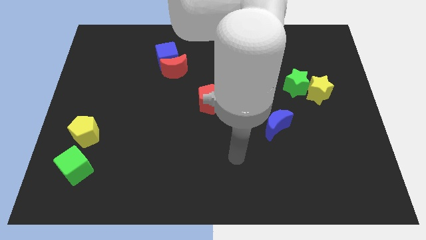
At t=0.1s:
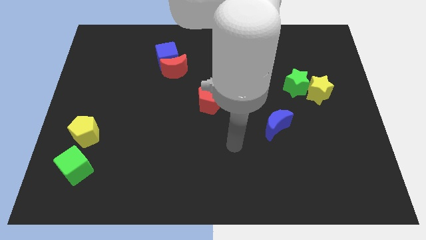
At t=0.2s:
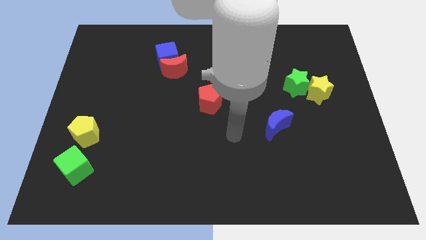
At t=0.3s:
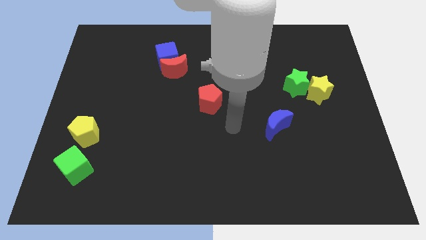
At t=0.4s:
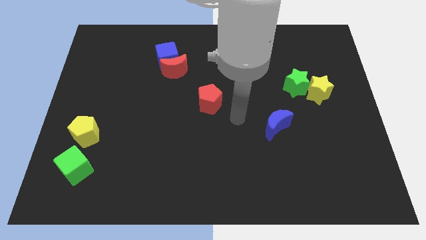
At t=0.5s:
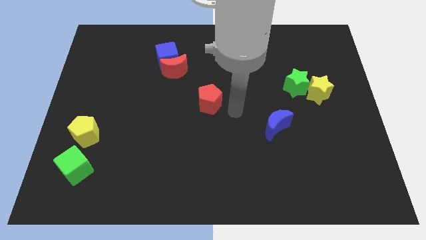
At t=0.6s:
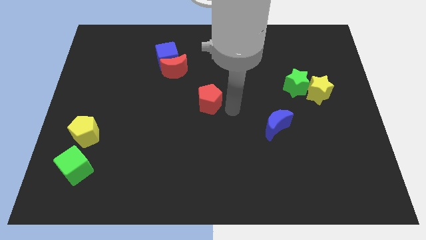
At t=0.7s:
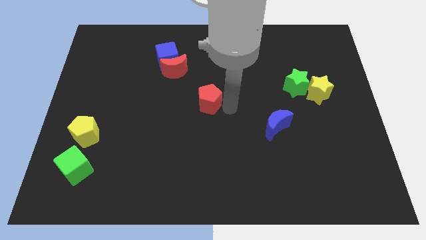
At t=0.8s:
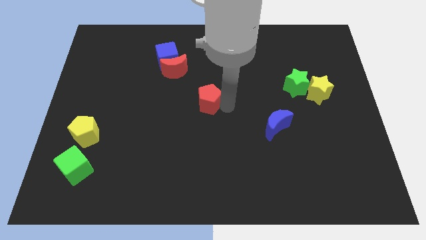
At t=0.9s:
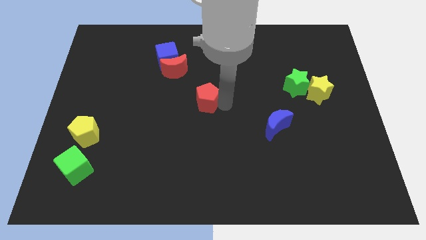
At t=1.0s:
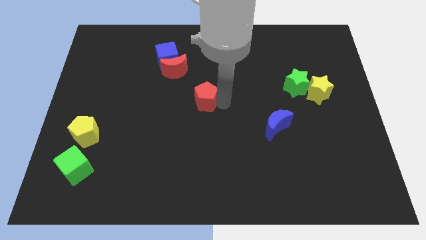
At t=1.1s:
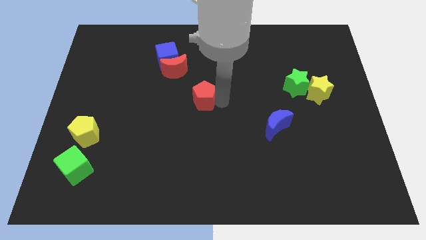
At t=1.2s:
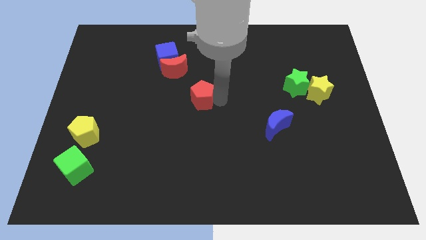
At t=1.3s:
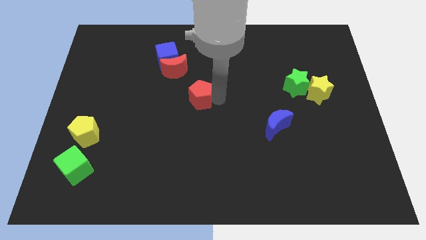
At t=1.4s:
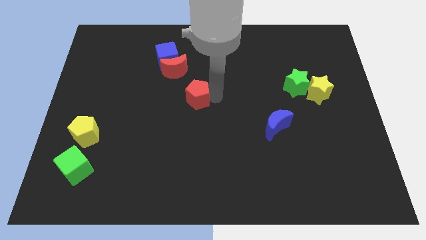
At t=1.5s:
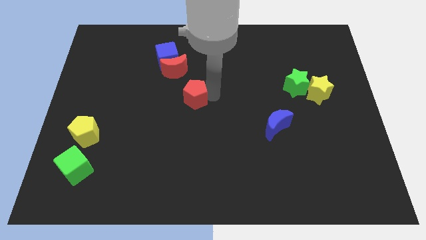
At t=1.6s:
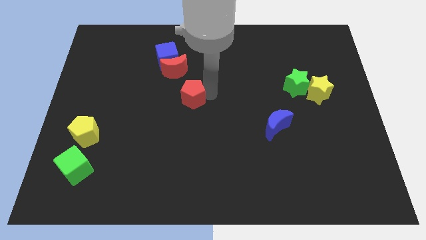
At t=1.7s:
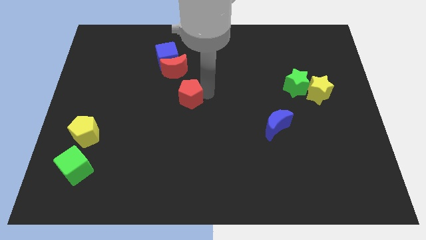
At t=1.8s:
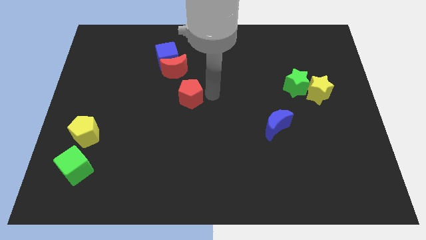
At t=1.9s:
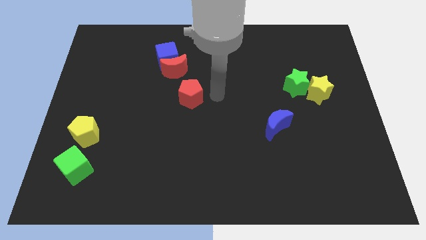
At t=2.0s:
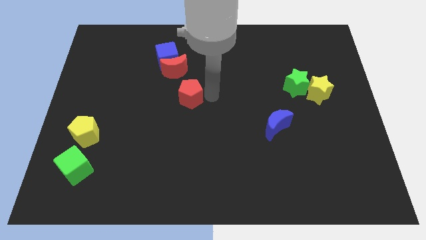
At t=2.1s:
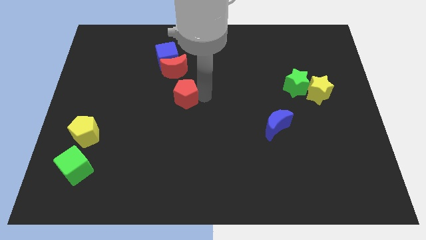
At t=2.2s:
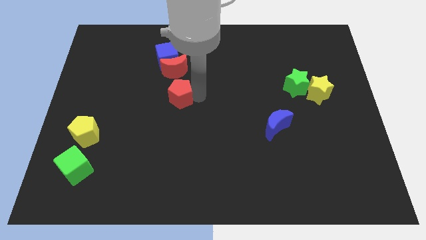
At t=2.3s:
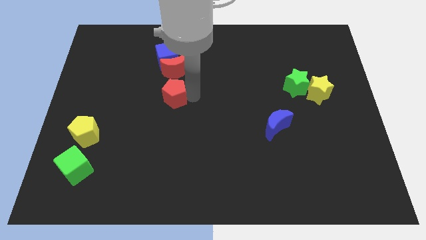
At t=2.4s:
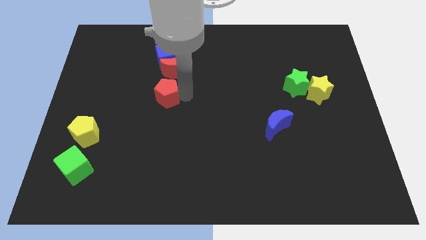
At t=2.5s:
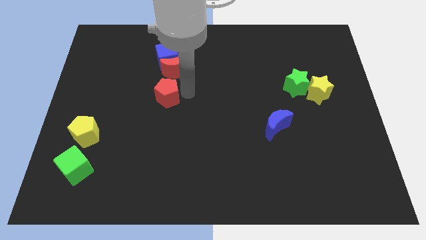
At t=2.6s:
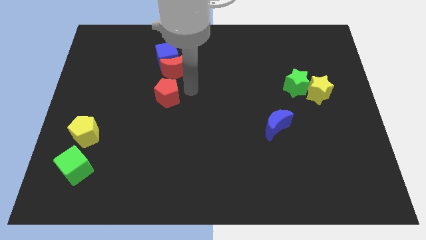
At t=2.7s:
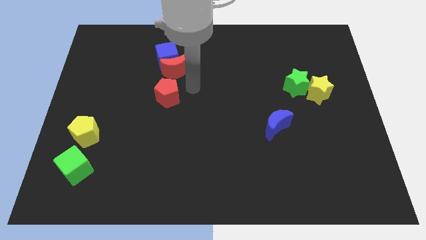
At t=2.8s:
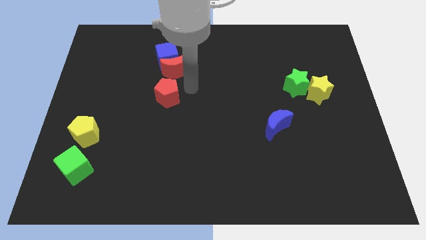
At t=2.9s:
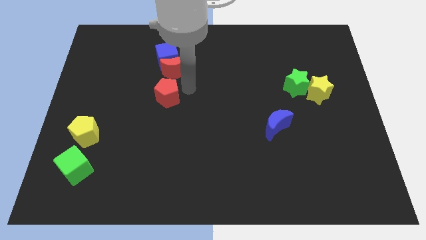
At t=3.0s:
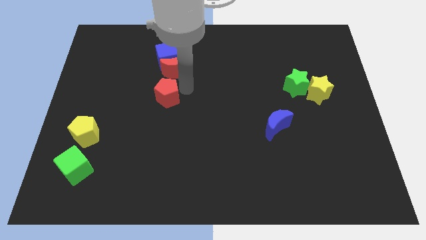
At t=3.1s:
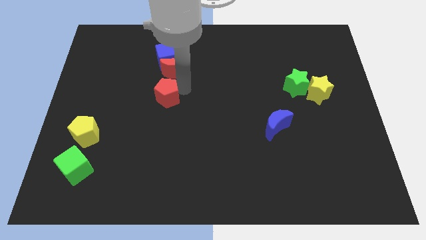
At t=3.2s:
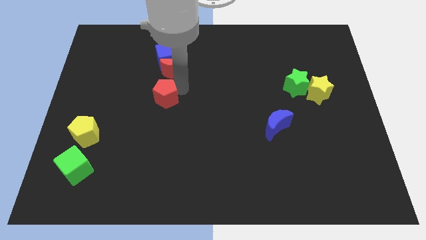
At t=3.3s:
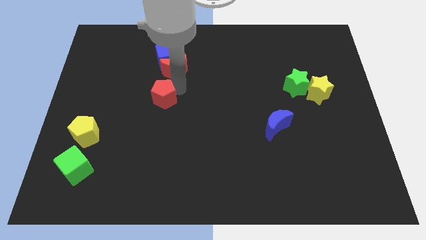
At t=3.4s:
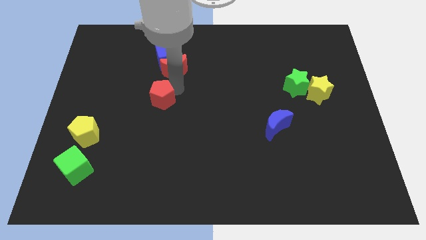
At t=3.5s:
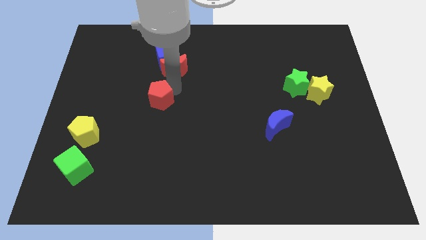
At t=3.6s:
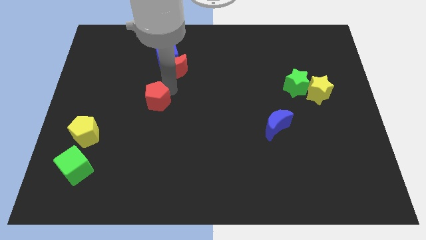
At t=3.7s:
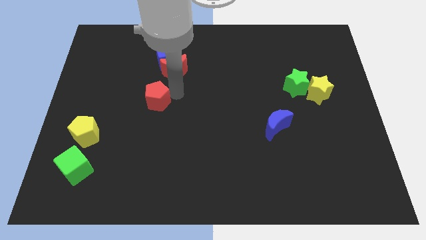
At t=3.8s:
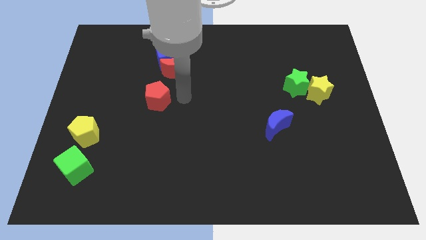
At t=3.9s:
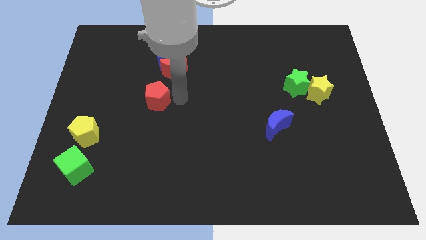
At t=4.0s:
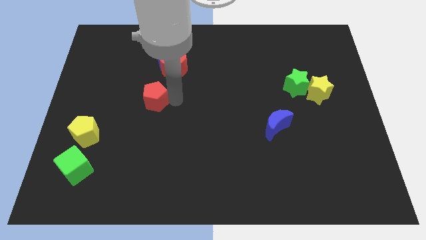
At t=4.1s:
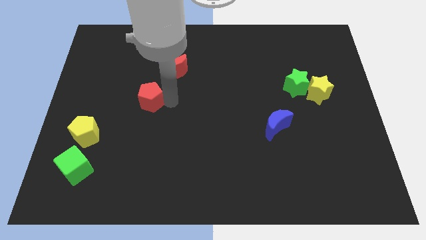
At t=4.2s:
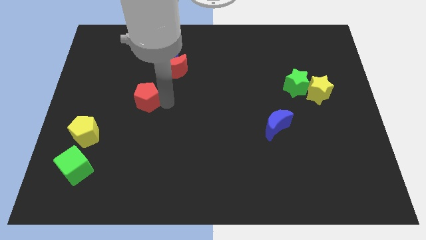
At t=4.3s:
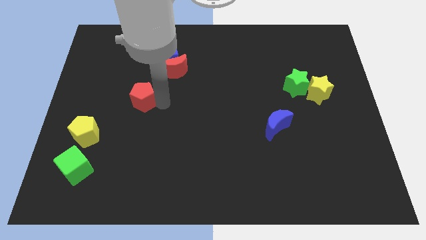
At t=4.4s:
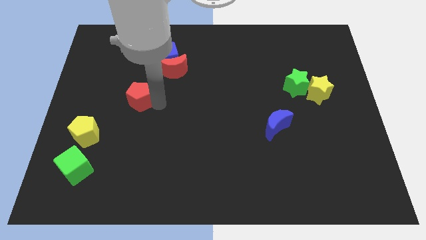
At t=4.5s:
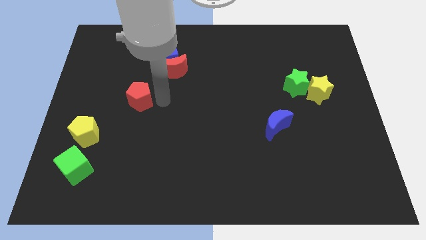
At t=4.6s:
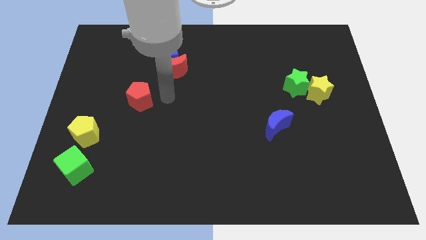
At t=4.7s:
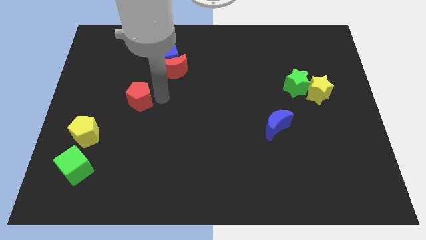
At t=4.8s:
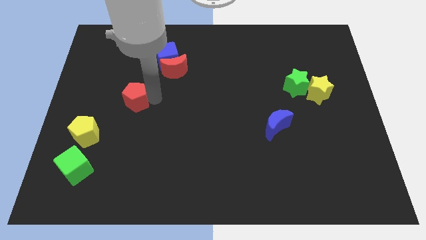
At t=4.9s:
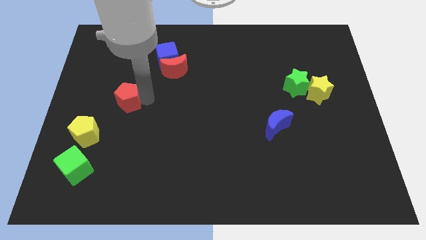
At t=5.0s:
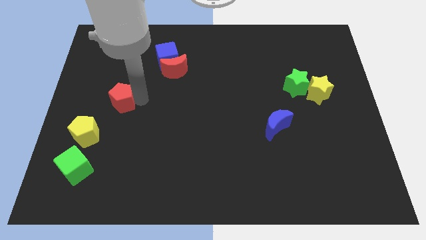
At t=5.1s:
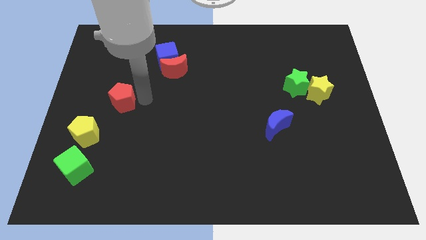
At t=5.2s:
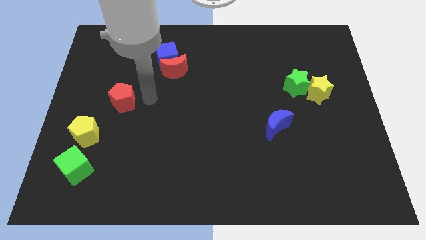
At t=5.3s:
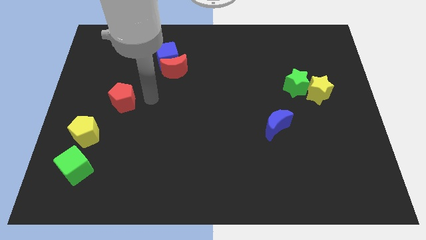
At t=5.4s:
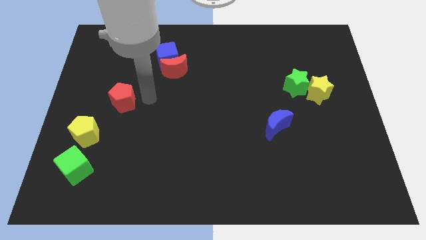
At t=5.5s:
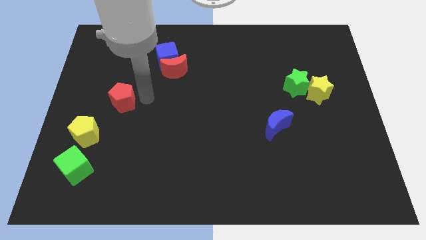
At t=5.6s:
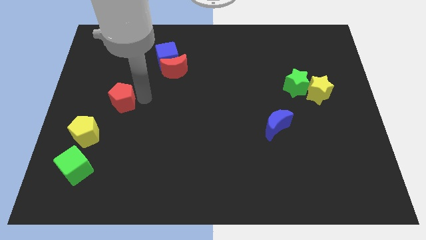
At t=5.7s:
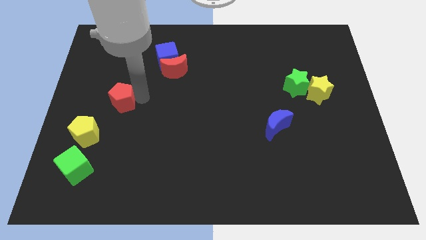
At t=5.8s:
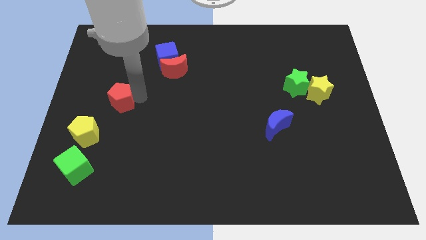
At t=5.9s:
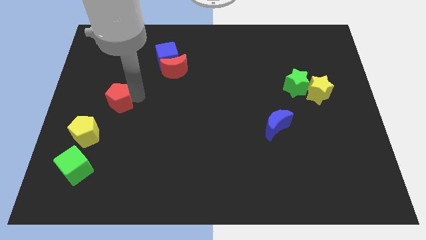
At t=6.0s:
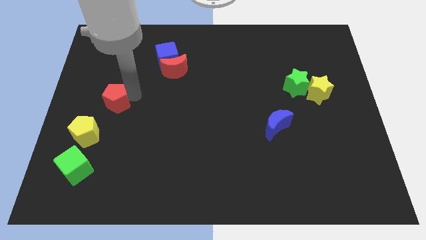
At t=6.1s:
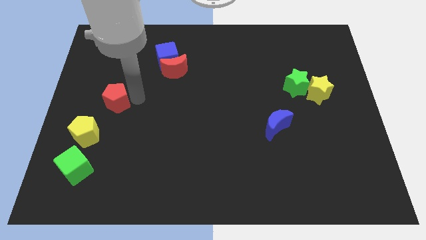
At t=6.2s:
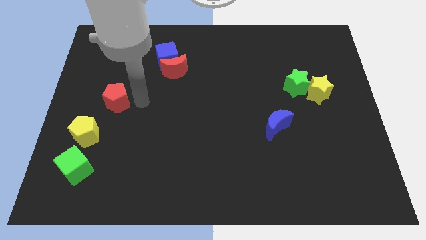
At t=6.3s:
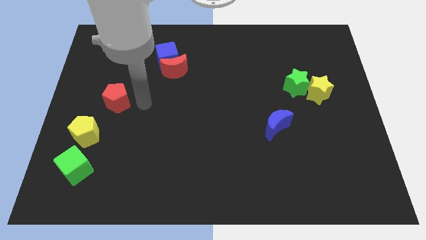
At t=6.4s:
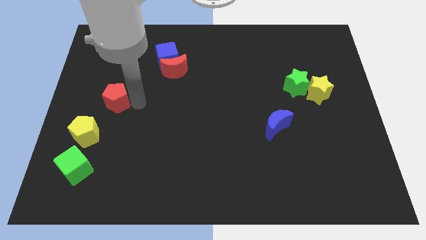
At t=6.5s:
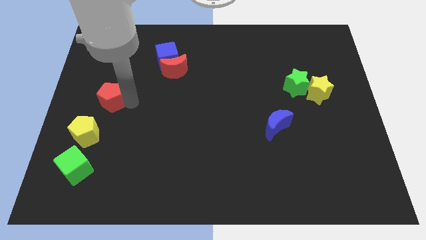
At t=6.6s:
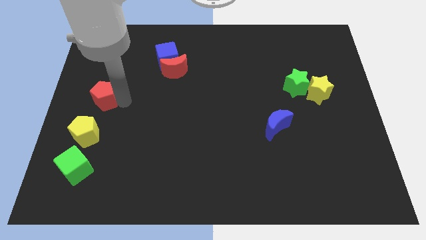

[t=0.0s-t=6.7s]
push the red pentagon to the center left

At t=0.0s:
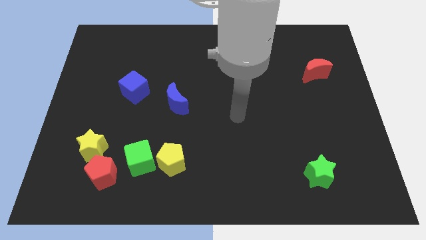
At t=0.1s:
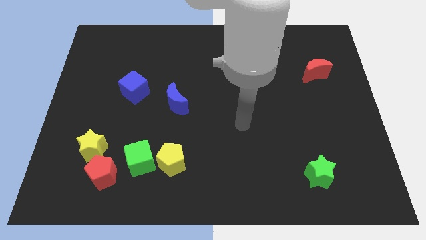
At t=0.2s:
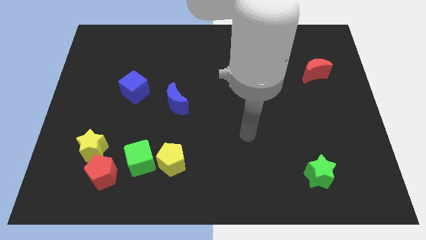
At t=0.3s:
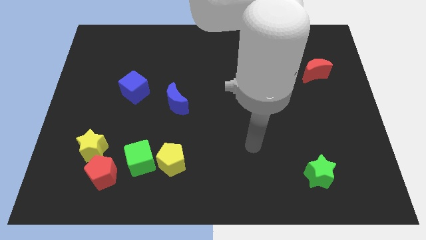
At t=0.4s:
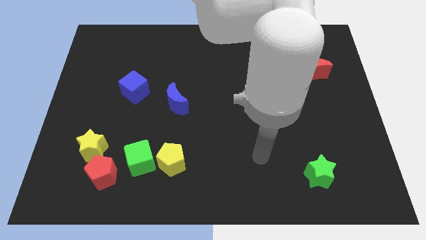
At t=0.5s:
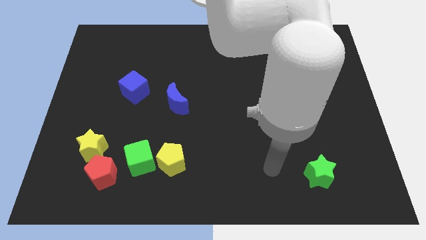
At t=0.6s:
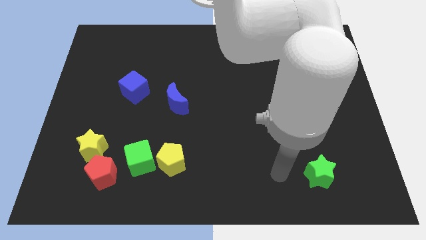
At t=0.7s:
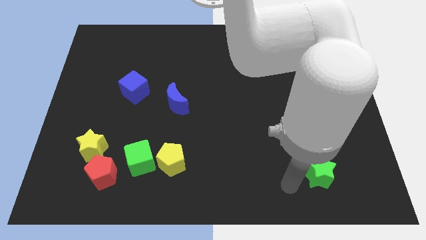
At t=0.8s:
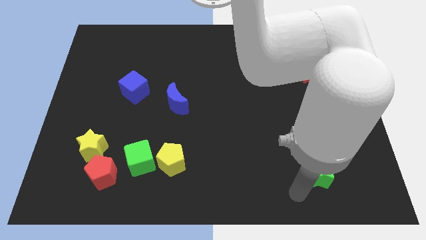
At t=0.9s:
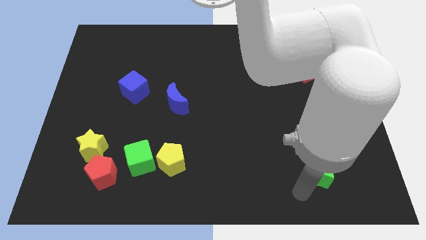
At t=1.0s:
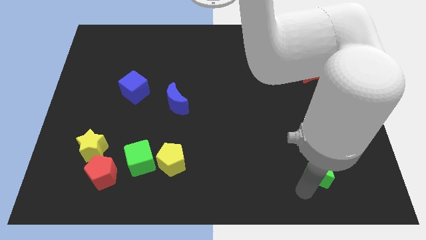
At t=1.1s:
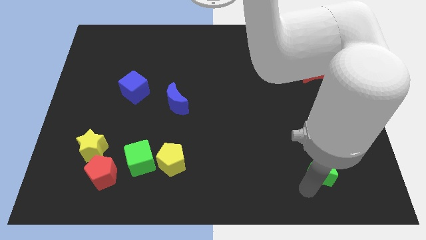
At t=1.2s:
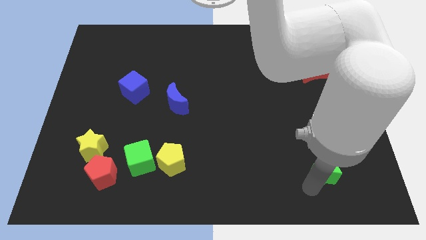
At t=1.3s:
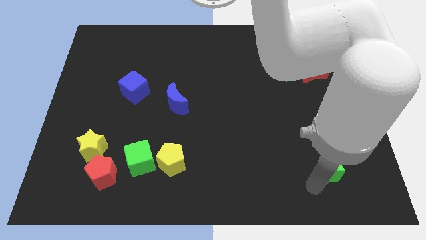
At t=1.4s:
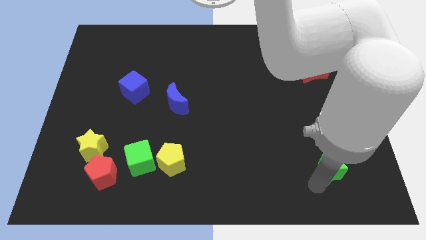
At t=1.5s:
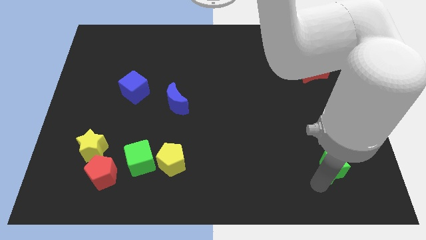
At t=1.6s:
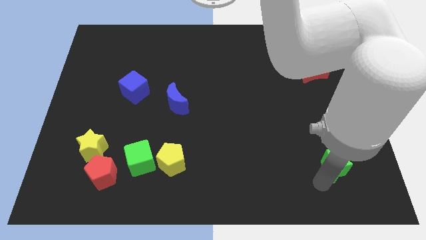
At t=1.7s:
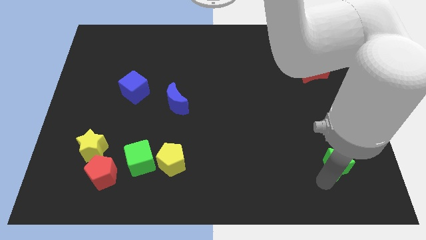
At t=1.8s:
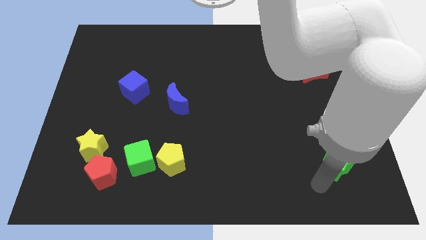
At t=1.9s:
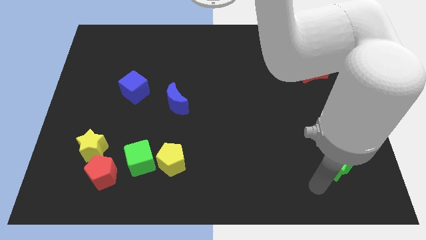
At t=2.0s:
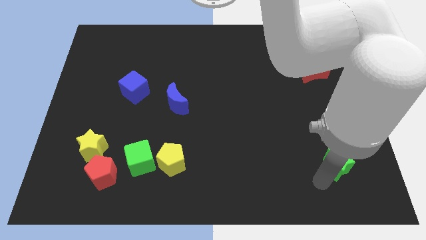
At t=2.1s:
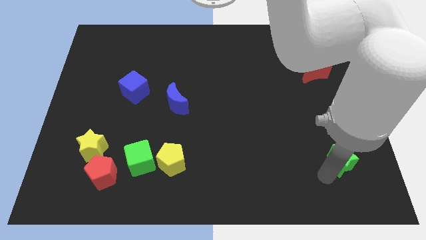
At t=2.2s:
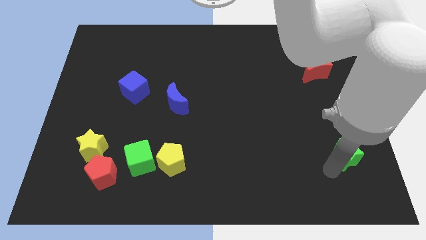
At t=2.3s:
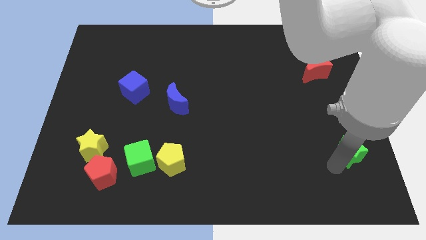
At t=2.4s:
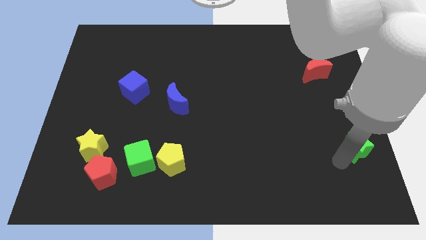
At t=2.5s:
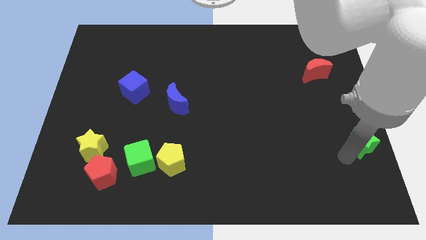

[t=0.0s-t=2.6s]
slide the green star to the right side
